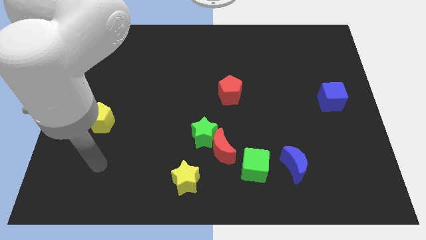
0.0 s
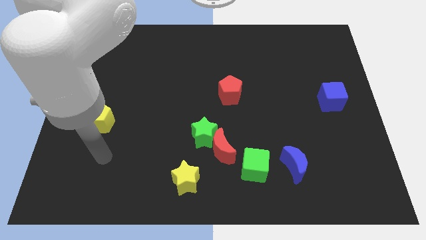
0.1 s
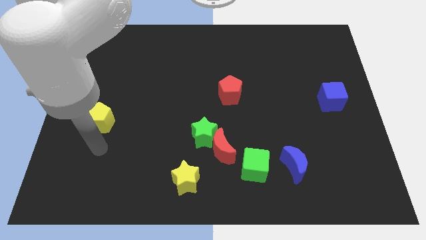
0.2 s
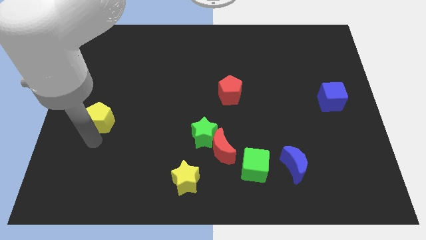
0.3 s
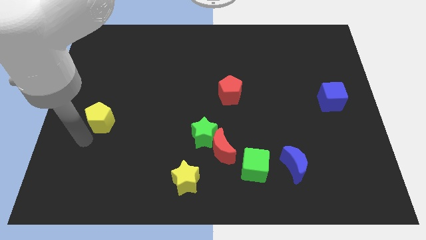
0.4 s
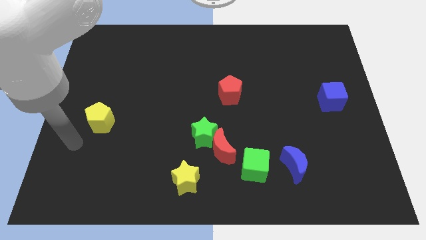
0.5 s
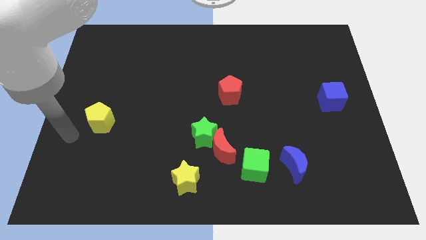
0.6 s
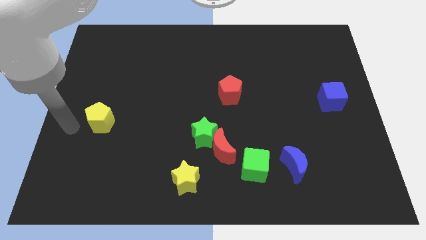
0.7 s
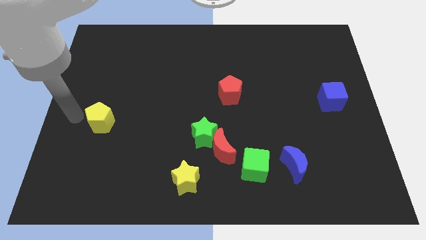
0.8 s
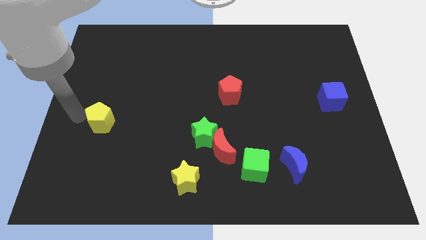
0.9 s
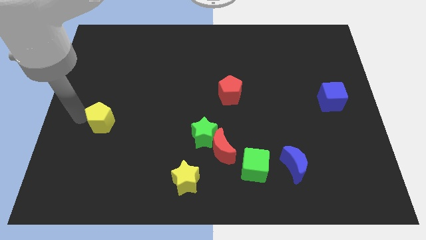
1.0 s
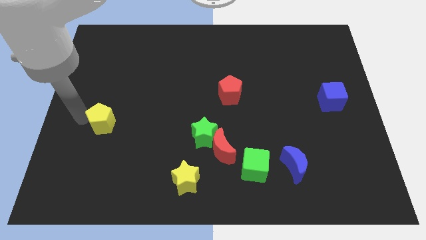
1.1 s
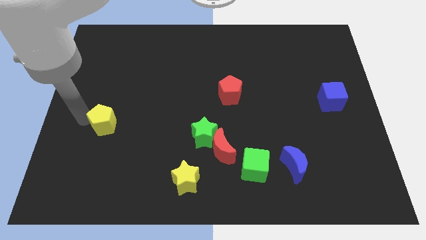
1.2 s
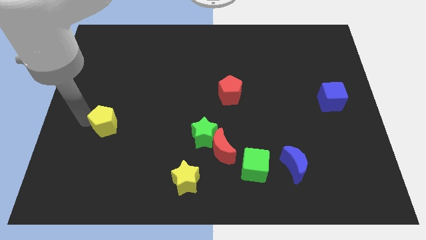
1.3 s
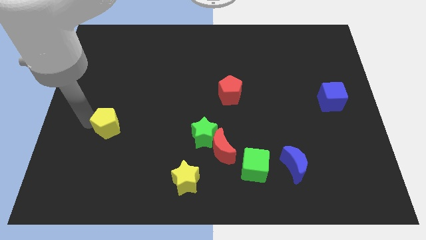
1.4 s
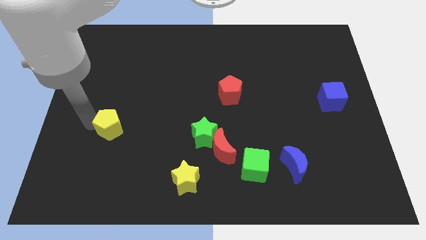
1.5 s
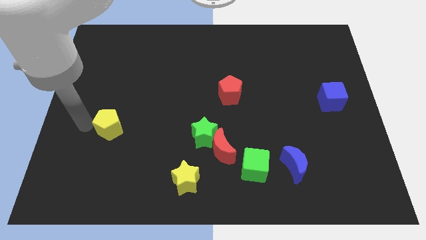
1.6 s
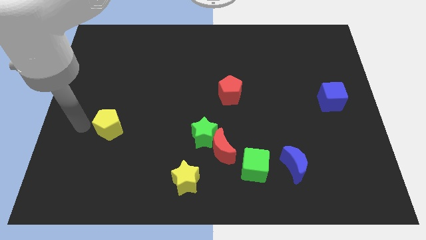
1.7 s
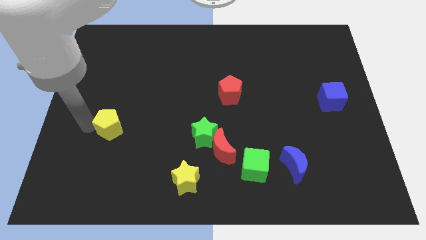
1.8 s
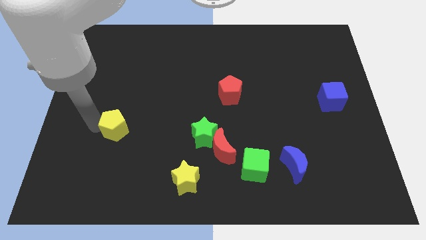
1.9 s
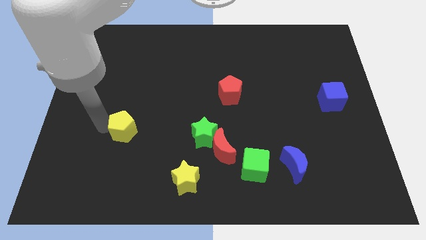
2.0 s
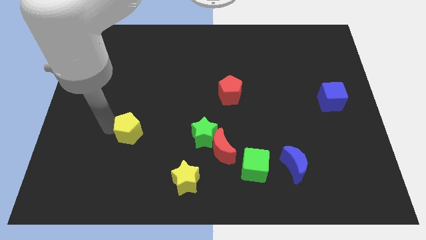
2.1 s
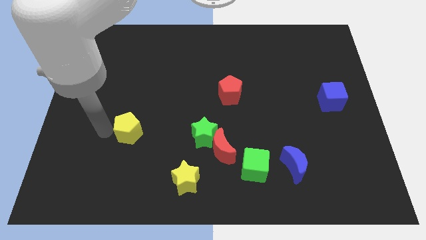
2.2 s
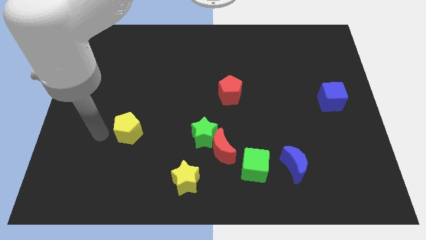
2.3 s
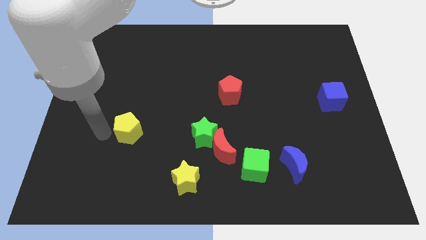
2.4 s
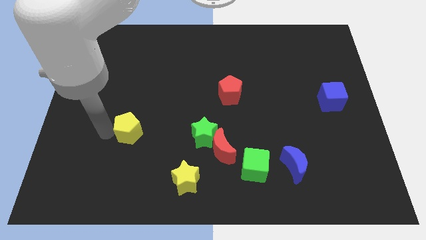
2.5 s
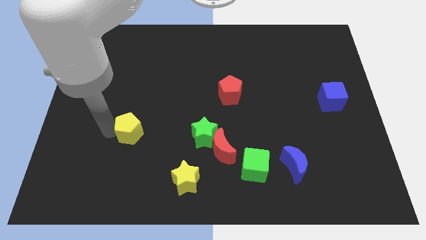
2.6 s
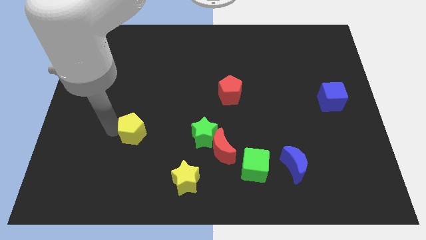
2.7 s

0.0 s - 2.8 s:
slightly push the yellow pentagon to the right

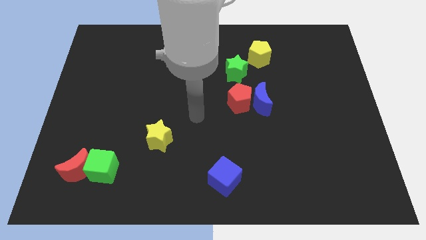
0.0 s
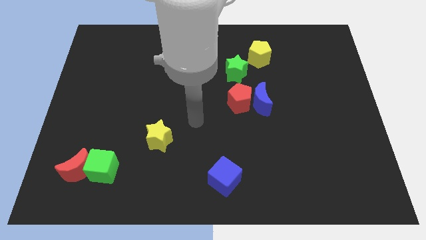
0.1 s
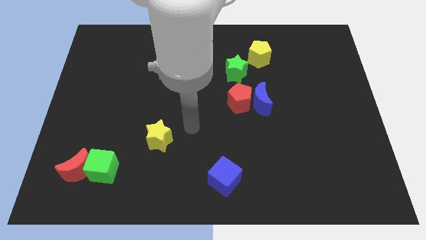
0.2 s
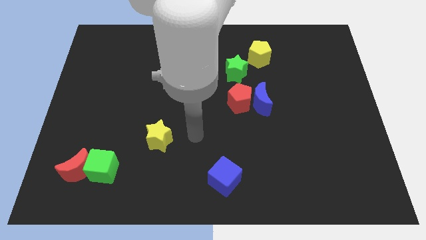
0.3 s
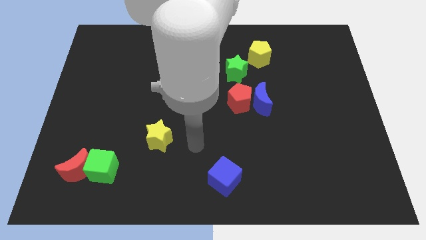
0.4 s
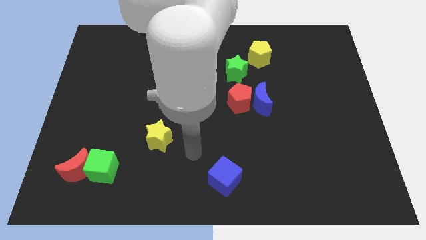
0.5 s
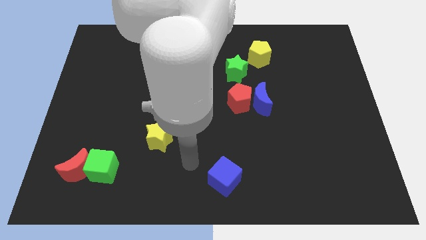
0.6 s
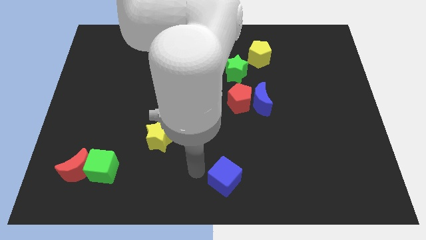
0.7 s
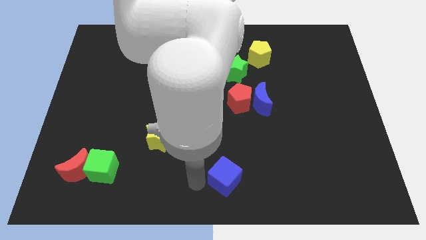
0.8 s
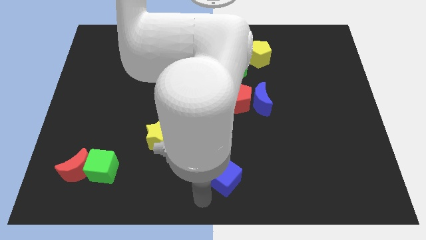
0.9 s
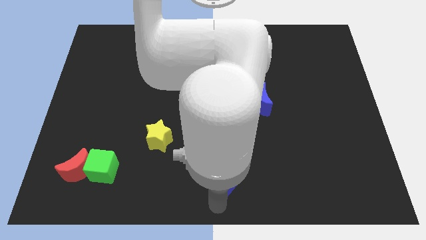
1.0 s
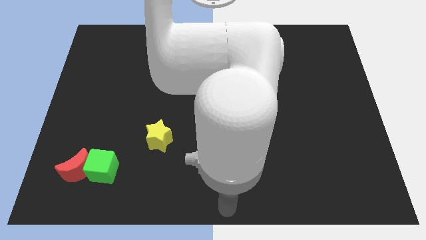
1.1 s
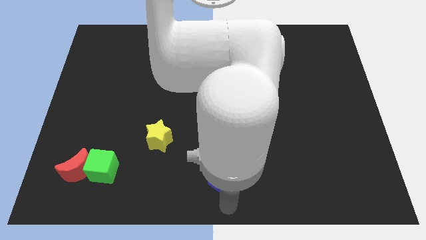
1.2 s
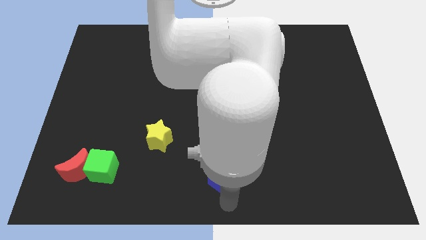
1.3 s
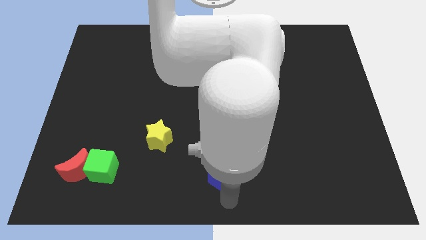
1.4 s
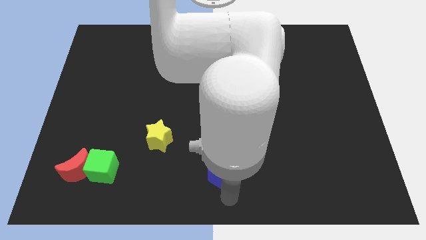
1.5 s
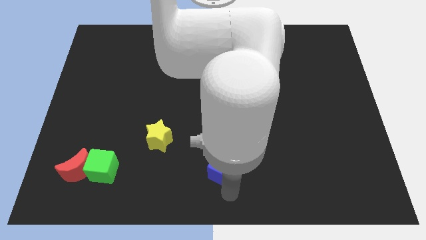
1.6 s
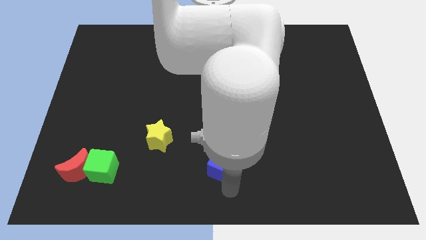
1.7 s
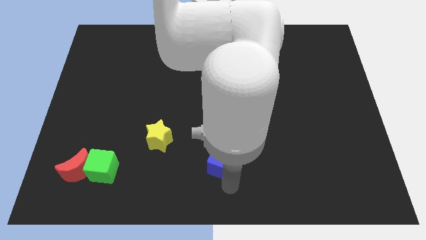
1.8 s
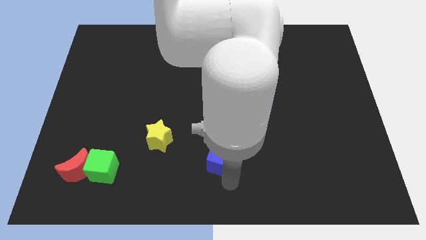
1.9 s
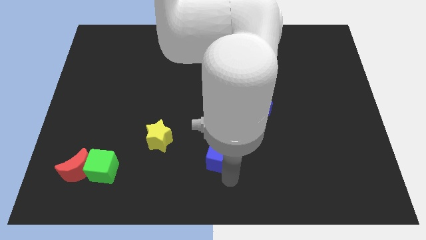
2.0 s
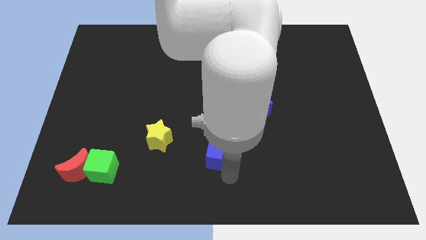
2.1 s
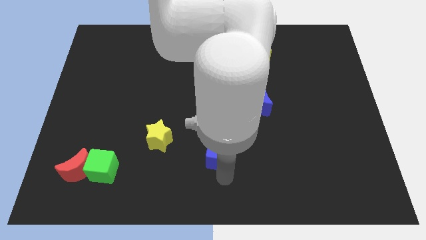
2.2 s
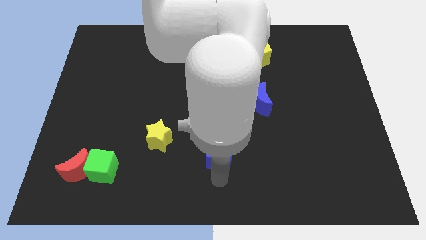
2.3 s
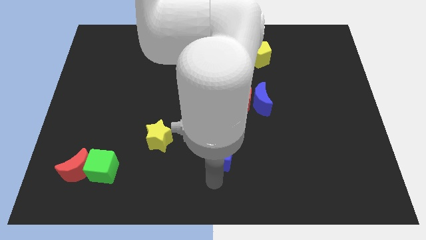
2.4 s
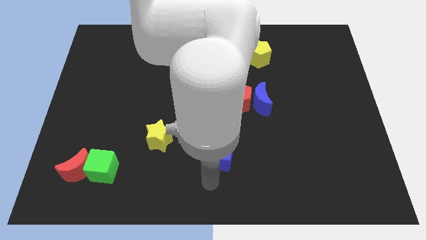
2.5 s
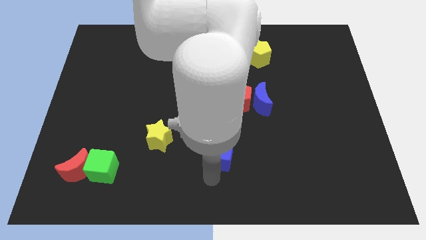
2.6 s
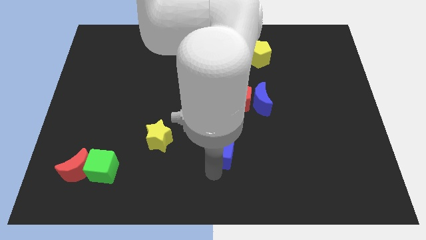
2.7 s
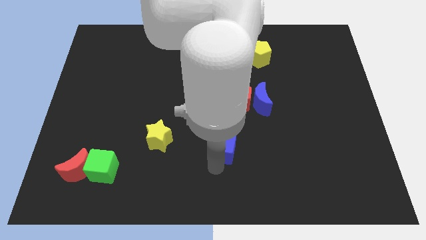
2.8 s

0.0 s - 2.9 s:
push the blue cube a little bit up

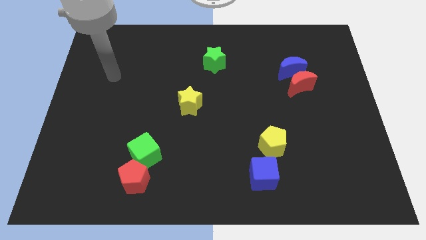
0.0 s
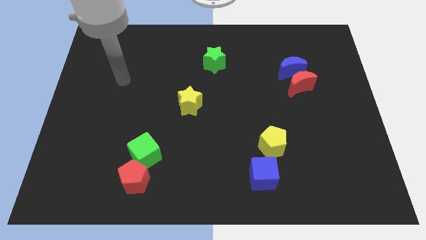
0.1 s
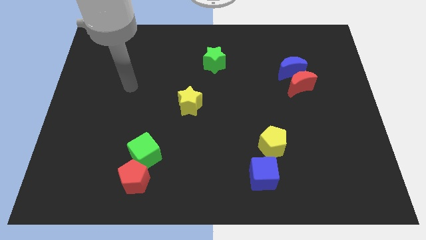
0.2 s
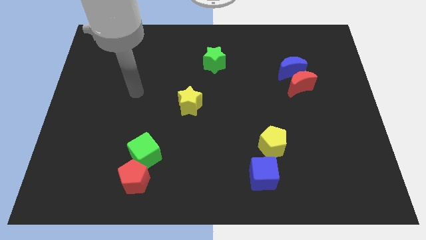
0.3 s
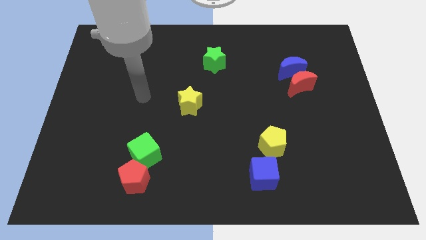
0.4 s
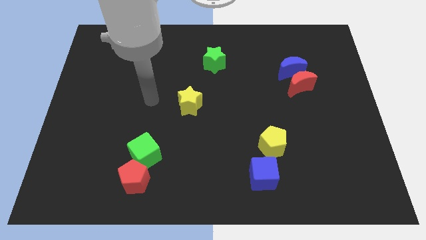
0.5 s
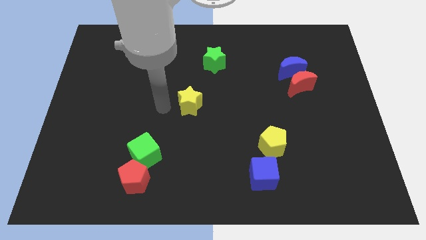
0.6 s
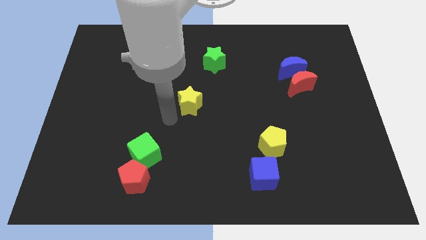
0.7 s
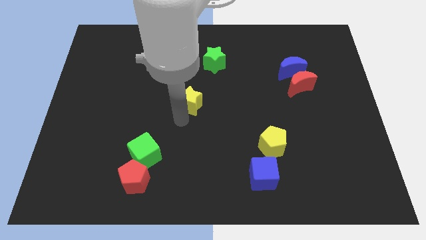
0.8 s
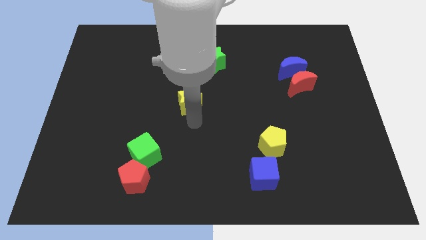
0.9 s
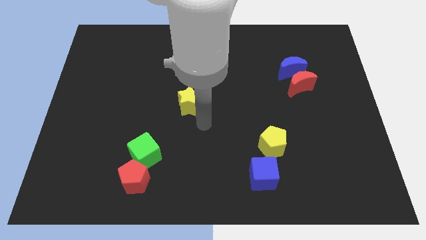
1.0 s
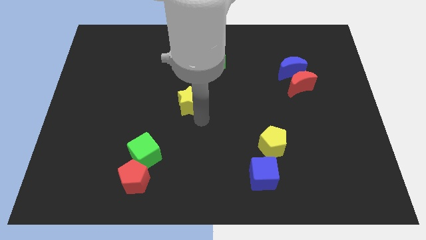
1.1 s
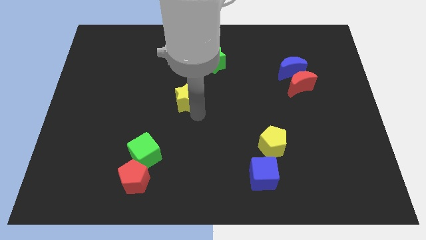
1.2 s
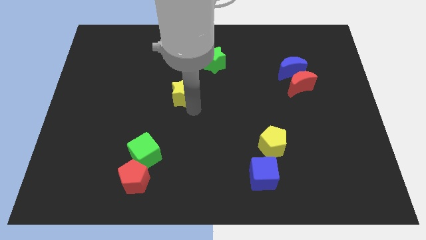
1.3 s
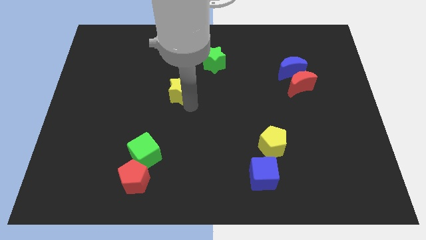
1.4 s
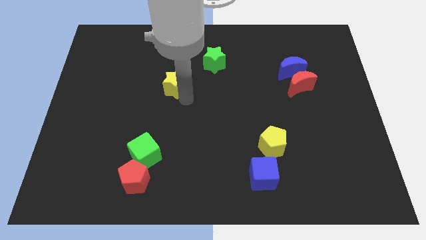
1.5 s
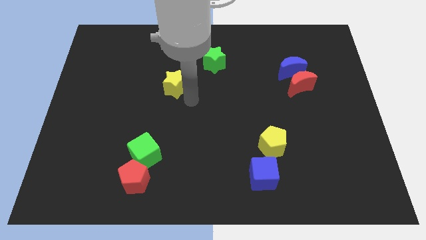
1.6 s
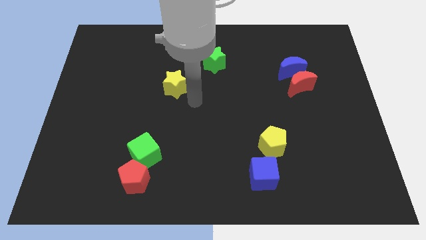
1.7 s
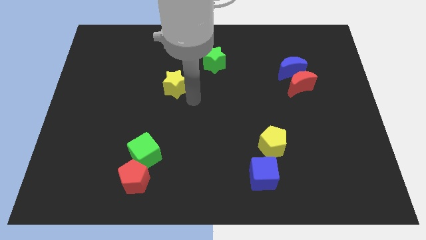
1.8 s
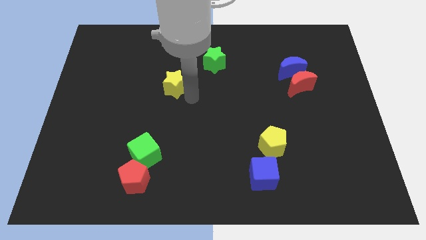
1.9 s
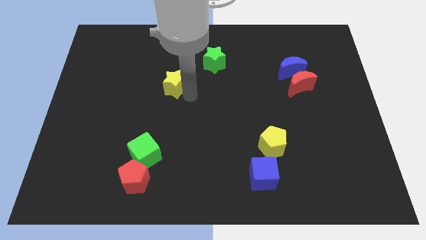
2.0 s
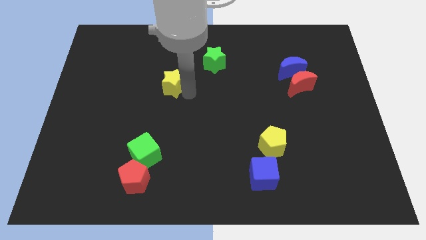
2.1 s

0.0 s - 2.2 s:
slide the yellow star a little bit up and left diagonally
